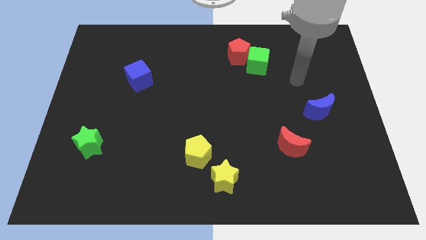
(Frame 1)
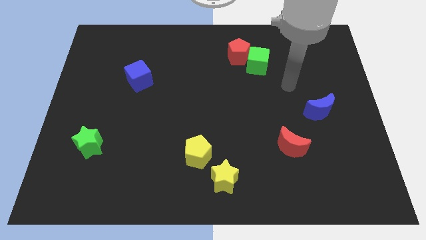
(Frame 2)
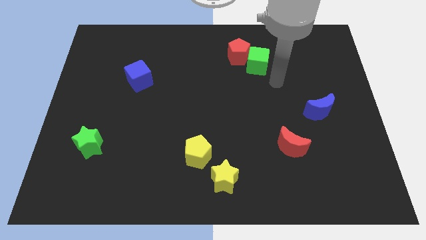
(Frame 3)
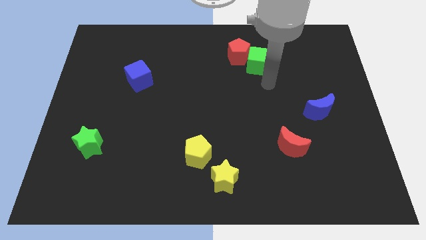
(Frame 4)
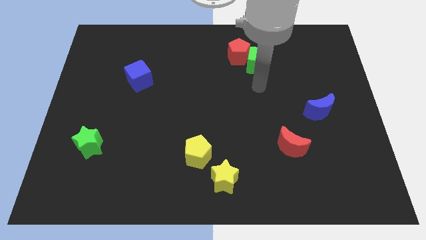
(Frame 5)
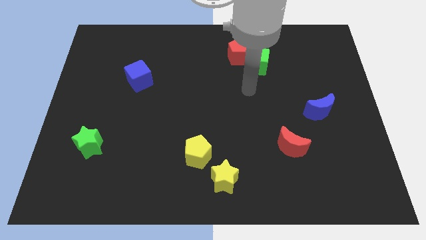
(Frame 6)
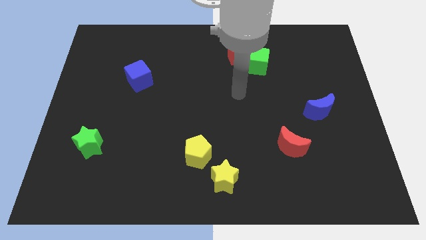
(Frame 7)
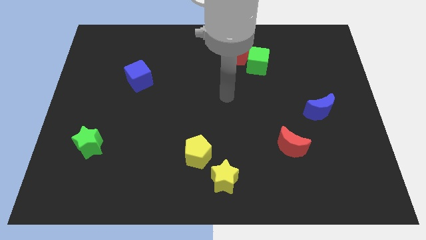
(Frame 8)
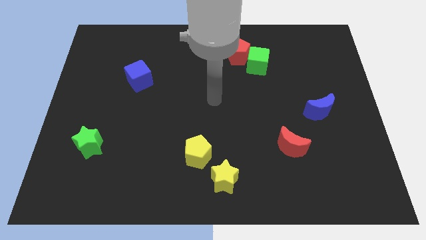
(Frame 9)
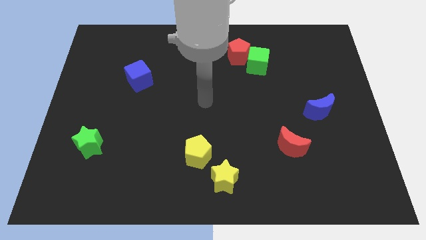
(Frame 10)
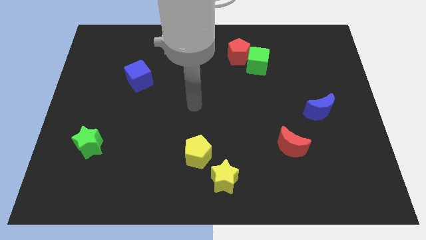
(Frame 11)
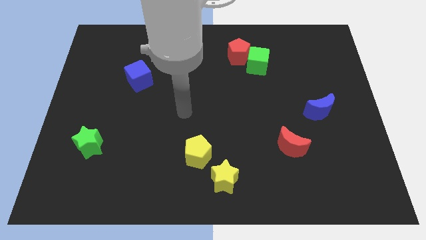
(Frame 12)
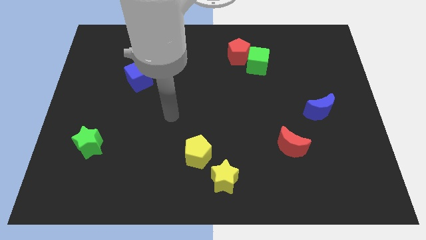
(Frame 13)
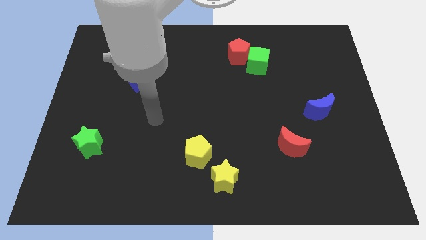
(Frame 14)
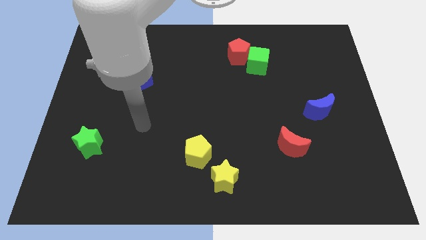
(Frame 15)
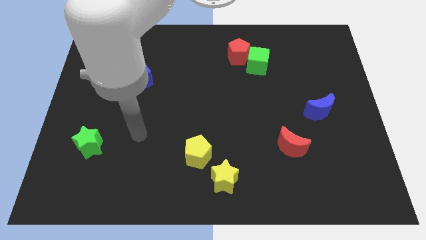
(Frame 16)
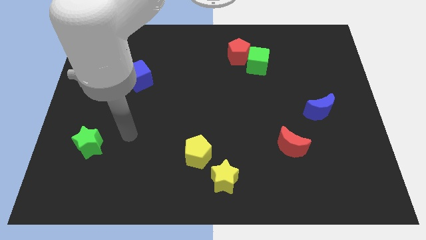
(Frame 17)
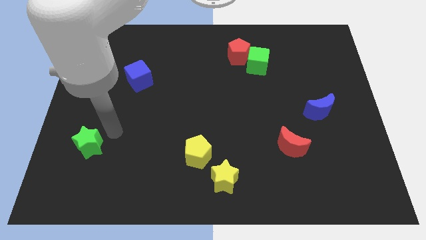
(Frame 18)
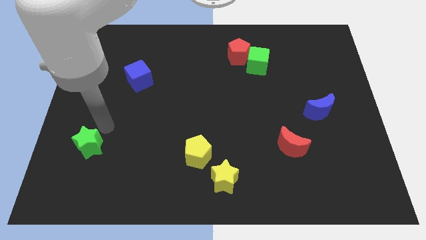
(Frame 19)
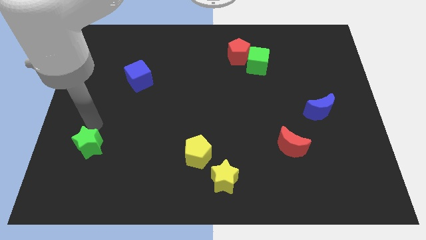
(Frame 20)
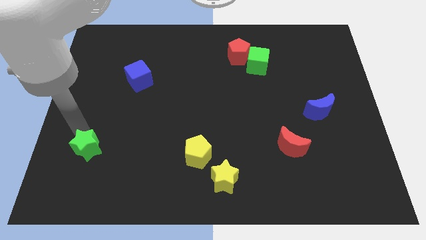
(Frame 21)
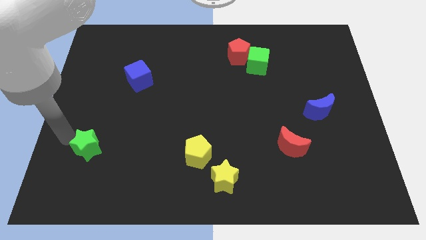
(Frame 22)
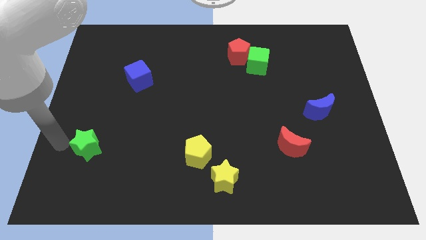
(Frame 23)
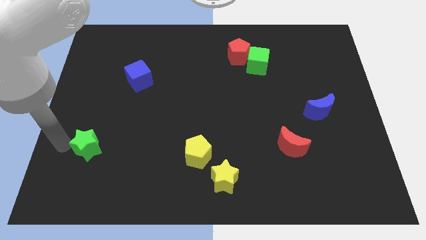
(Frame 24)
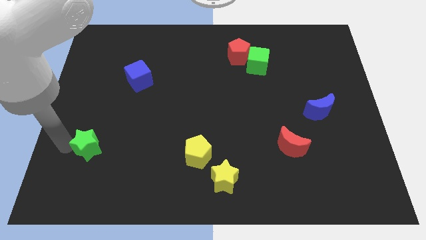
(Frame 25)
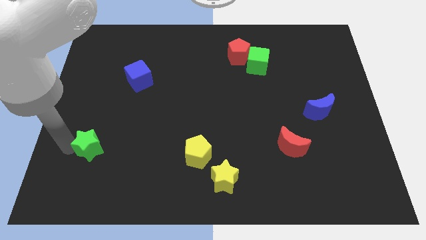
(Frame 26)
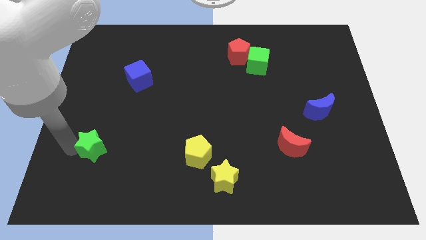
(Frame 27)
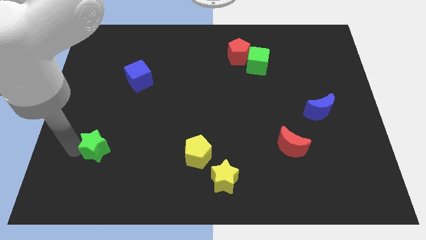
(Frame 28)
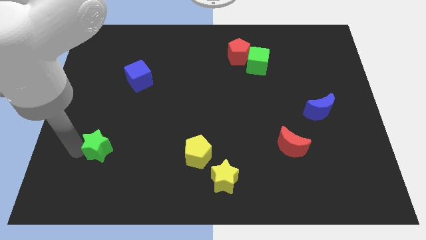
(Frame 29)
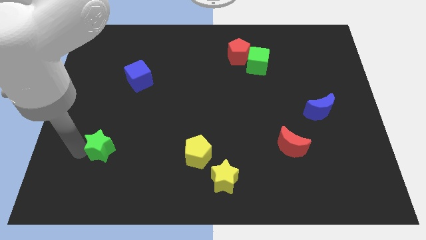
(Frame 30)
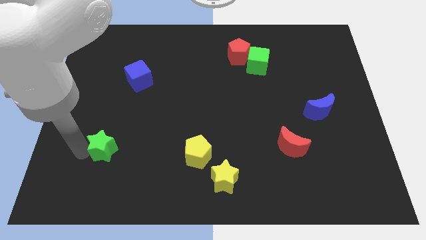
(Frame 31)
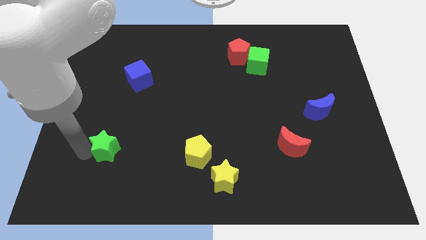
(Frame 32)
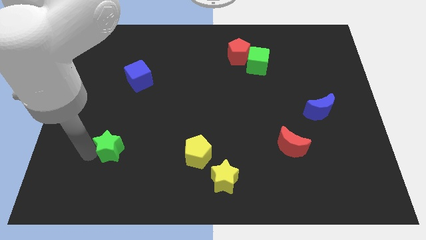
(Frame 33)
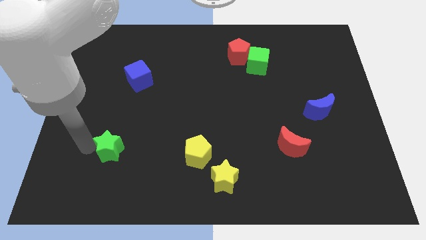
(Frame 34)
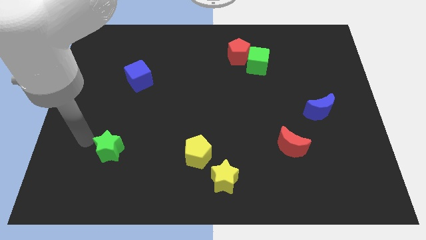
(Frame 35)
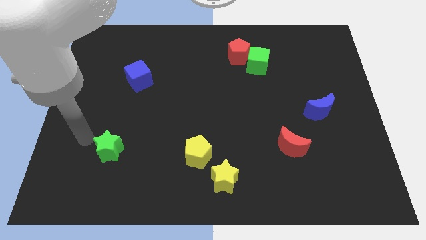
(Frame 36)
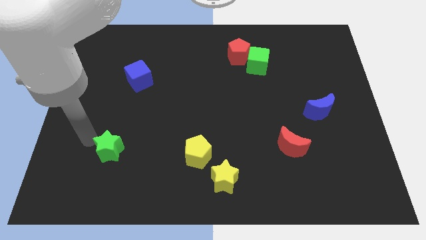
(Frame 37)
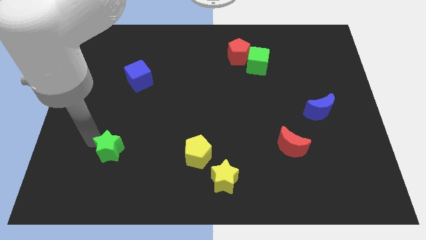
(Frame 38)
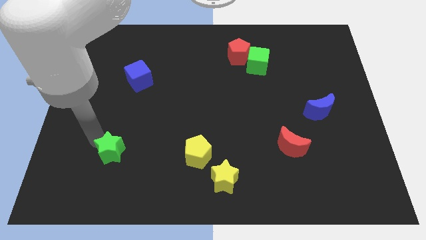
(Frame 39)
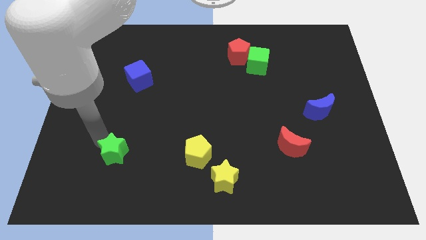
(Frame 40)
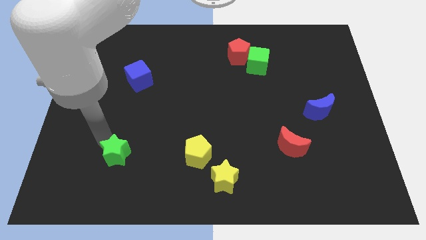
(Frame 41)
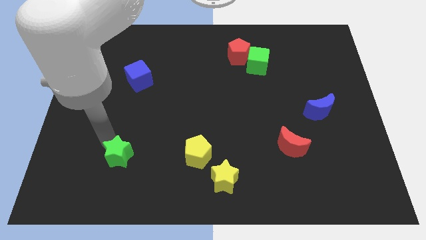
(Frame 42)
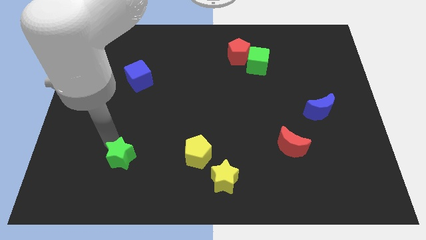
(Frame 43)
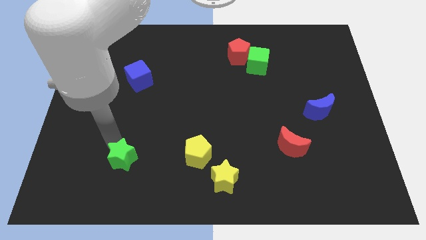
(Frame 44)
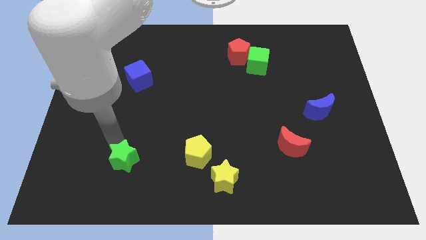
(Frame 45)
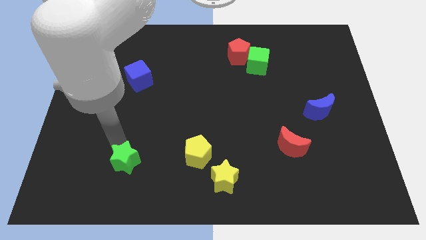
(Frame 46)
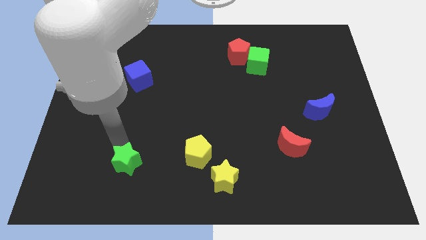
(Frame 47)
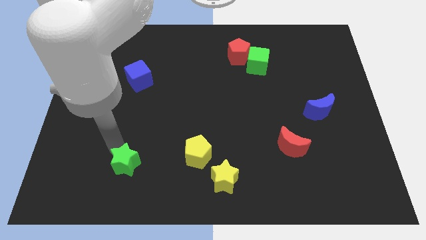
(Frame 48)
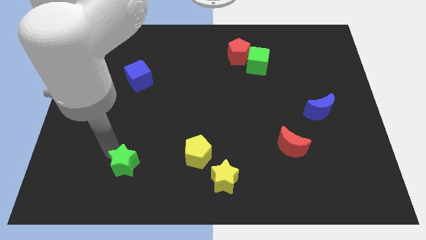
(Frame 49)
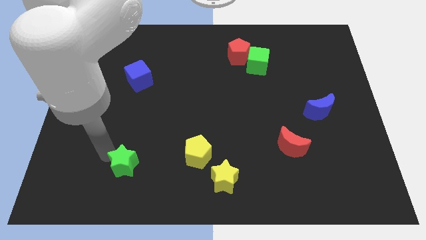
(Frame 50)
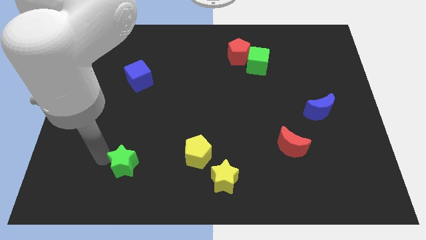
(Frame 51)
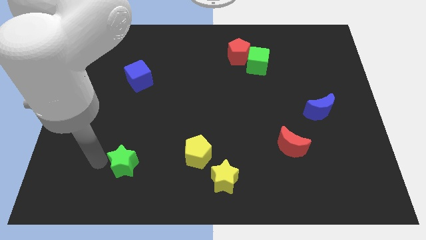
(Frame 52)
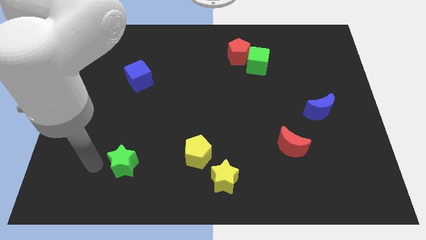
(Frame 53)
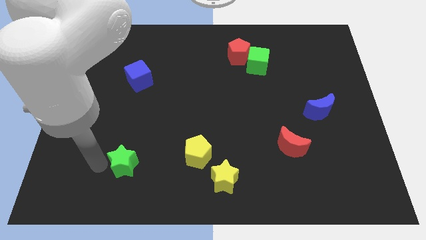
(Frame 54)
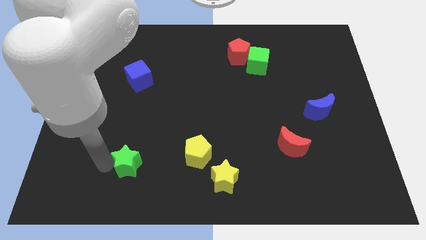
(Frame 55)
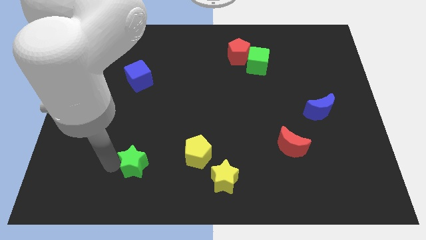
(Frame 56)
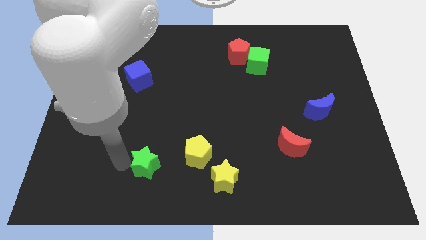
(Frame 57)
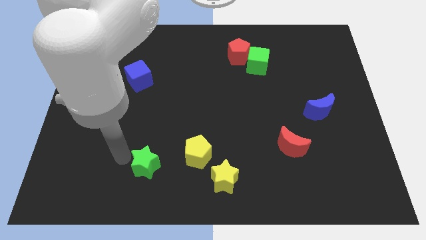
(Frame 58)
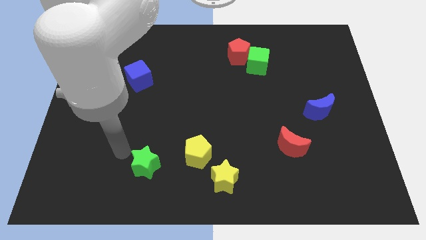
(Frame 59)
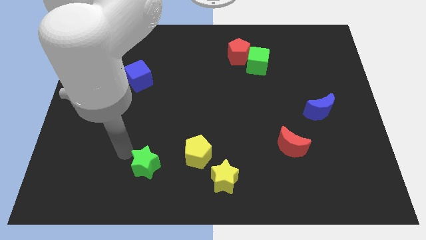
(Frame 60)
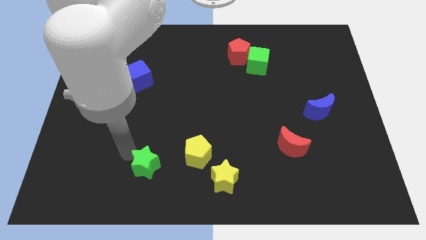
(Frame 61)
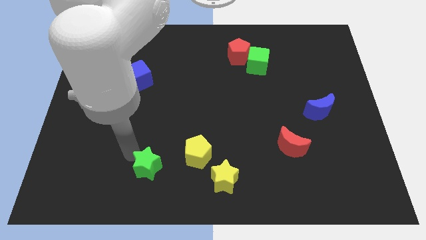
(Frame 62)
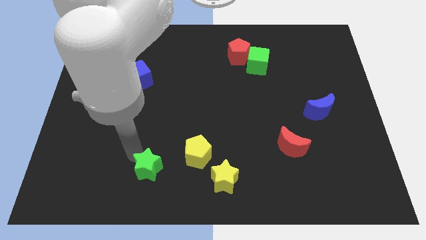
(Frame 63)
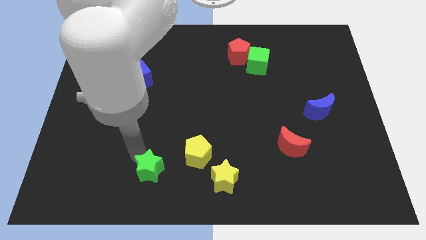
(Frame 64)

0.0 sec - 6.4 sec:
put the green star to the left of the yellow star

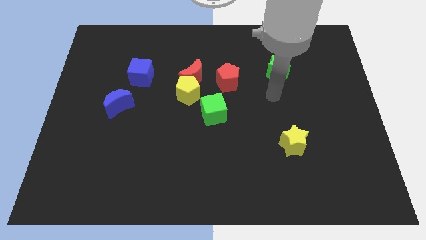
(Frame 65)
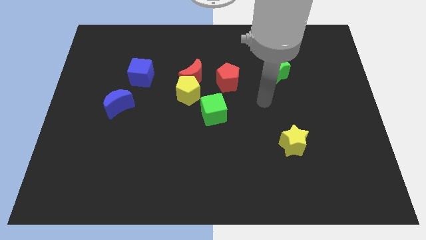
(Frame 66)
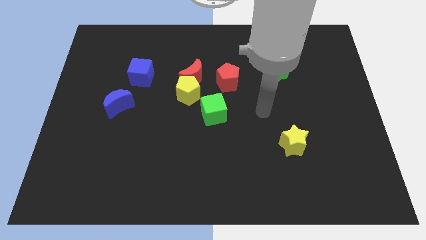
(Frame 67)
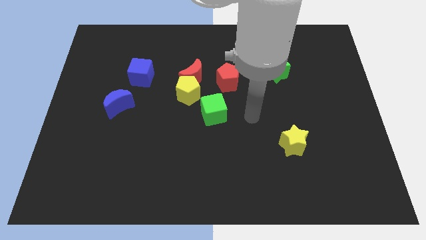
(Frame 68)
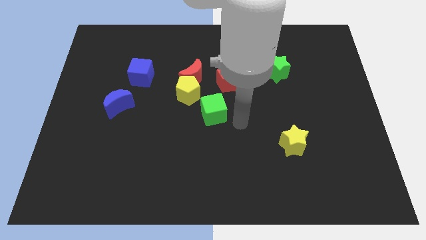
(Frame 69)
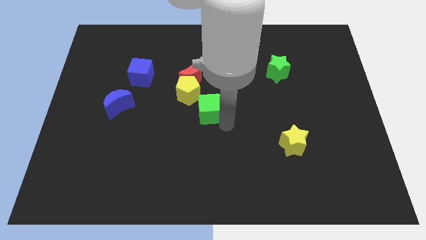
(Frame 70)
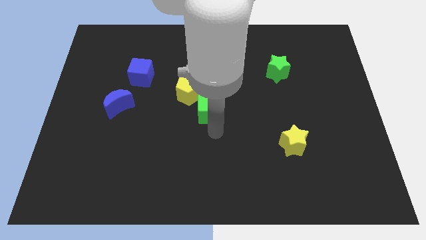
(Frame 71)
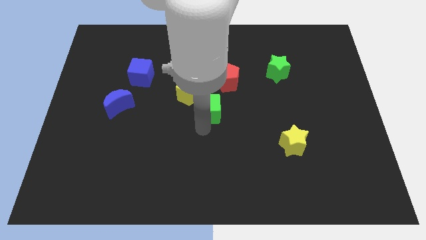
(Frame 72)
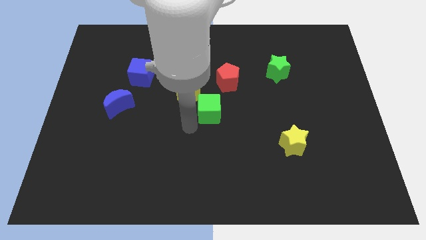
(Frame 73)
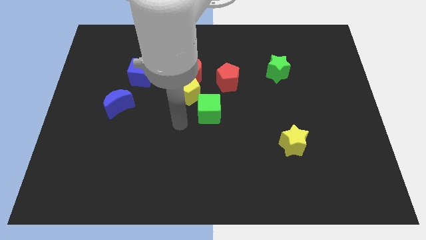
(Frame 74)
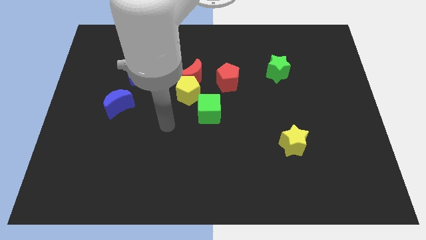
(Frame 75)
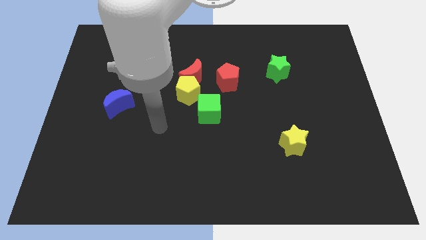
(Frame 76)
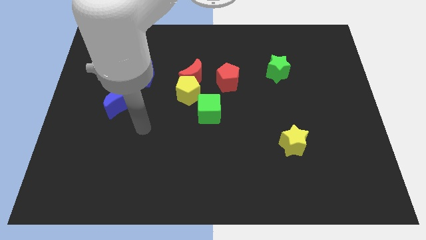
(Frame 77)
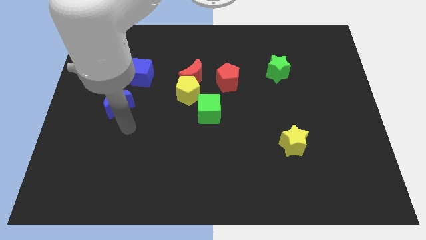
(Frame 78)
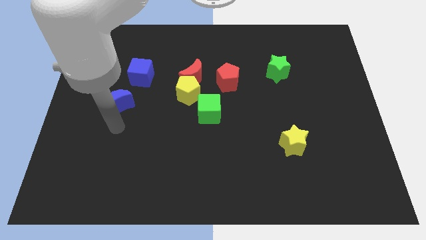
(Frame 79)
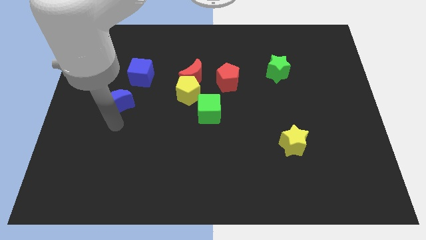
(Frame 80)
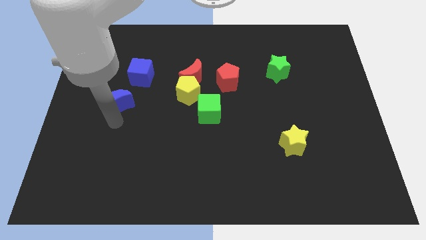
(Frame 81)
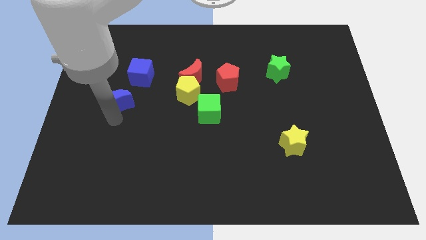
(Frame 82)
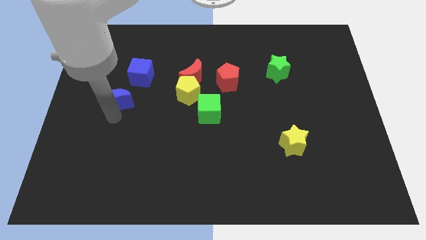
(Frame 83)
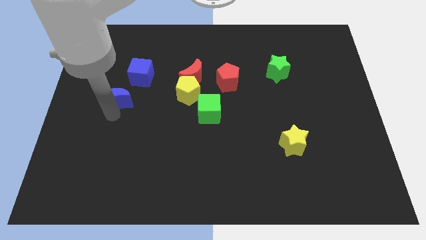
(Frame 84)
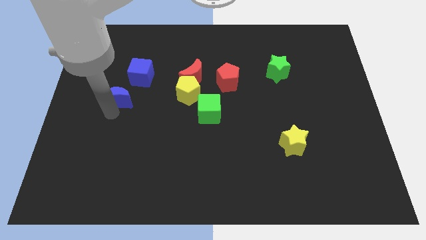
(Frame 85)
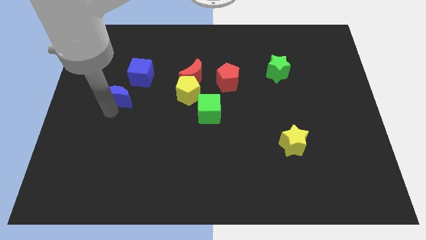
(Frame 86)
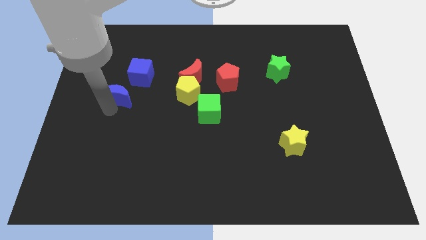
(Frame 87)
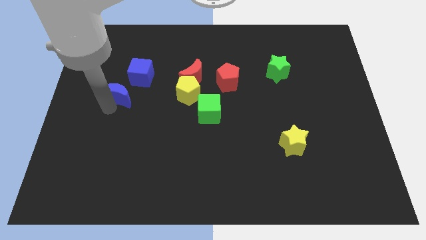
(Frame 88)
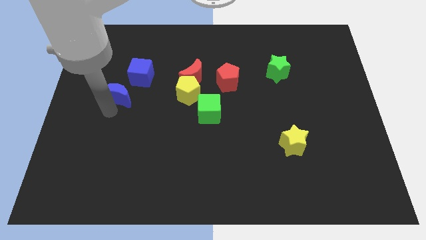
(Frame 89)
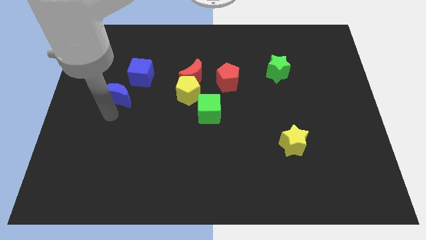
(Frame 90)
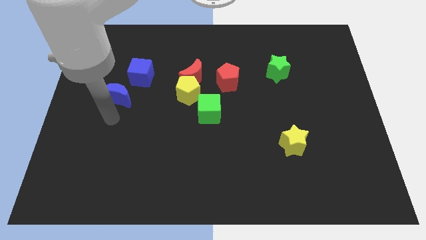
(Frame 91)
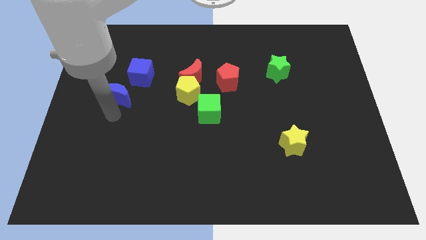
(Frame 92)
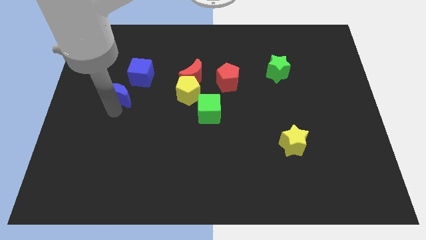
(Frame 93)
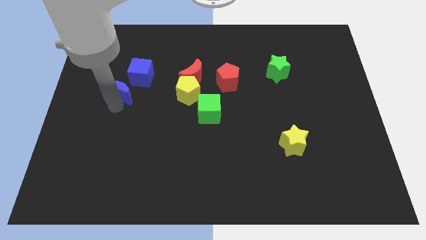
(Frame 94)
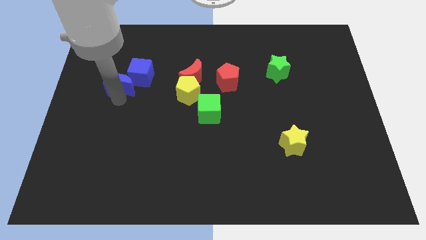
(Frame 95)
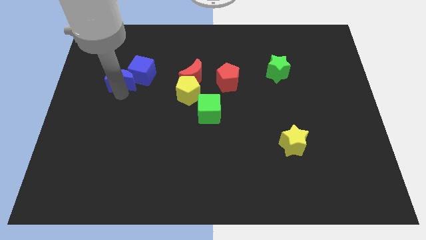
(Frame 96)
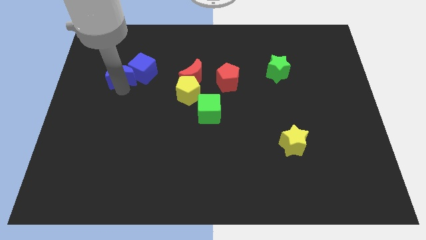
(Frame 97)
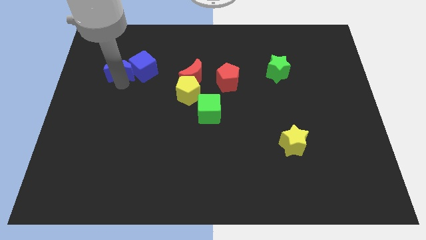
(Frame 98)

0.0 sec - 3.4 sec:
move the blue moon to the top left of the blue cube
